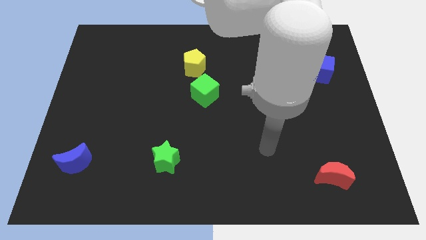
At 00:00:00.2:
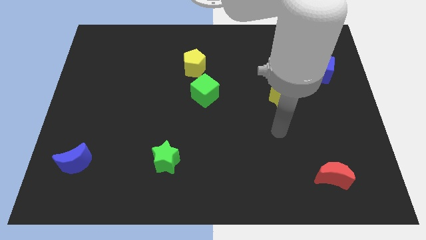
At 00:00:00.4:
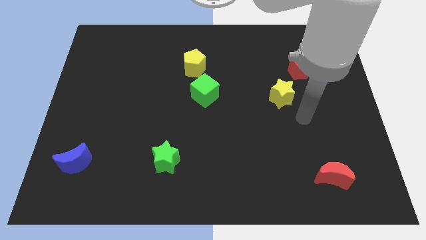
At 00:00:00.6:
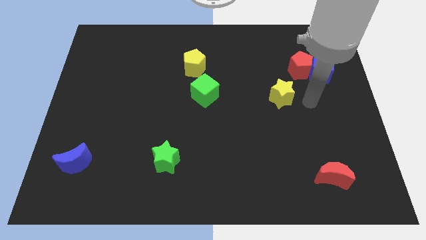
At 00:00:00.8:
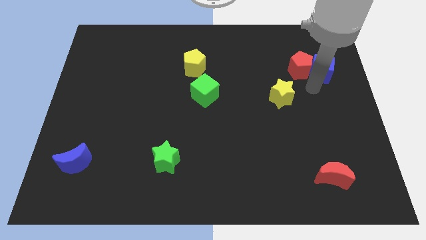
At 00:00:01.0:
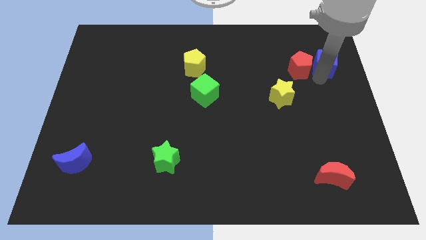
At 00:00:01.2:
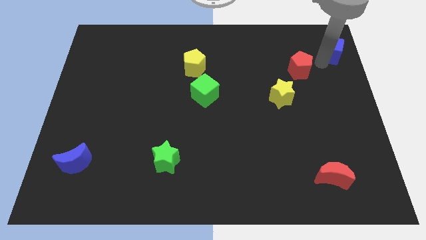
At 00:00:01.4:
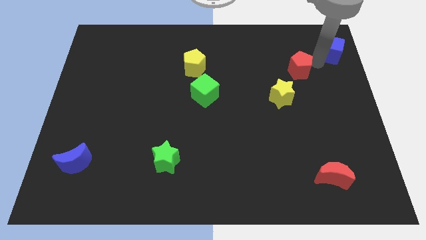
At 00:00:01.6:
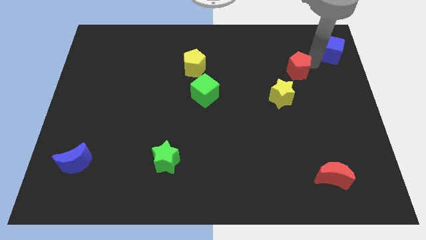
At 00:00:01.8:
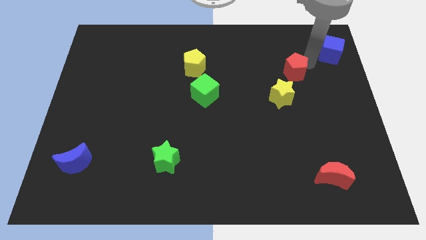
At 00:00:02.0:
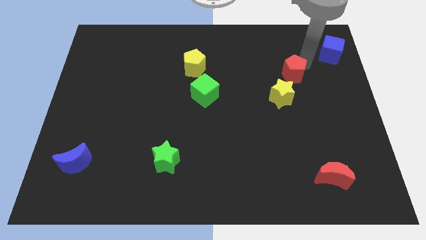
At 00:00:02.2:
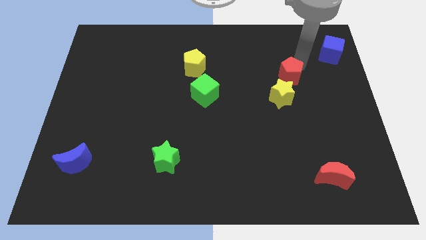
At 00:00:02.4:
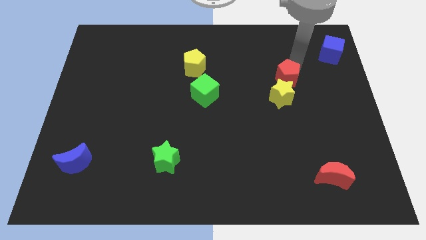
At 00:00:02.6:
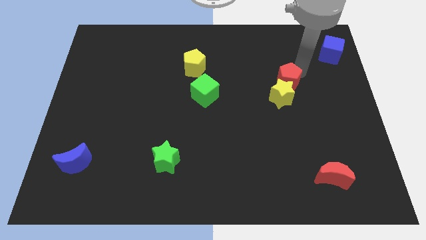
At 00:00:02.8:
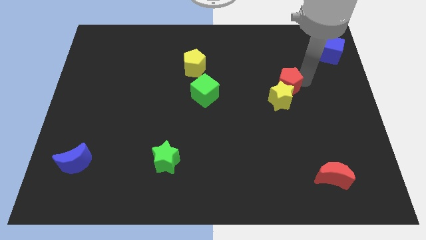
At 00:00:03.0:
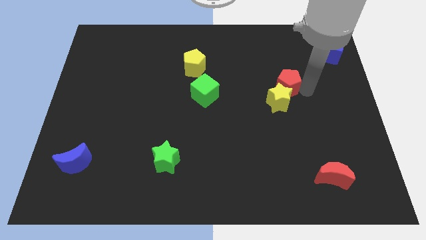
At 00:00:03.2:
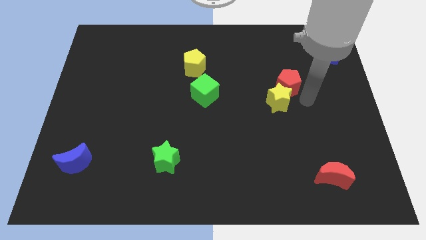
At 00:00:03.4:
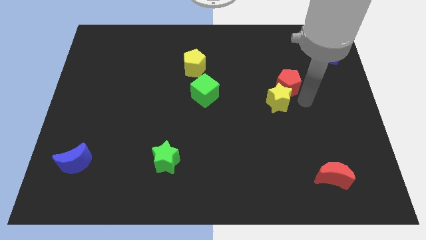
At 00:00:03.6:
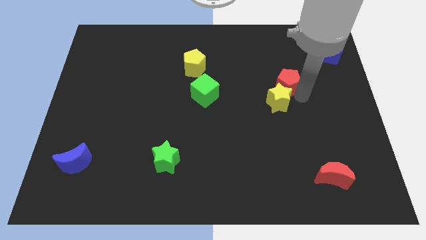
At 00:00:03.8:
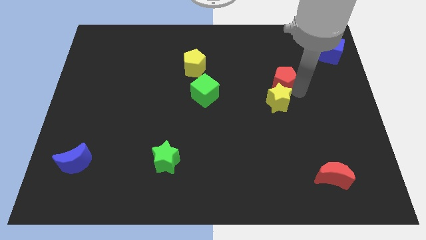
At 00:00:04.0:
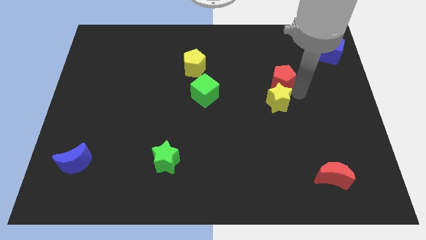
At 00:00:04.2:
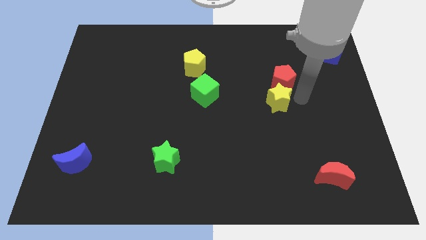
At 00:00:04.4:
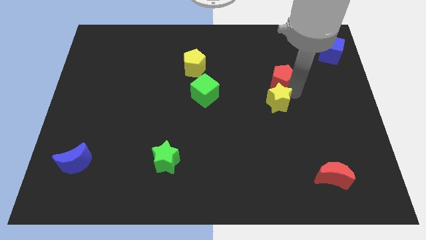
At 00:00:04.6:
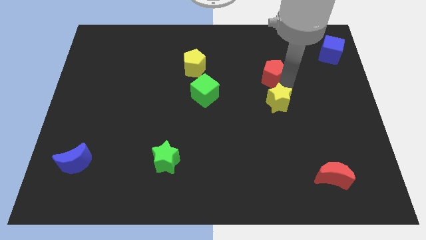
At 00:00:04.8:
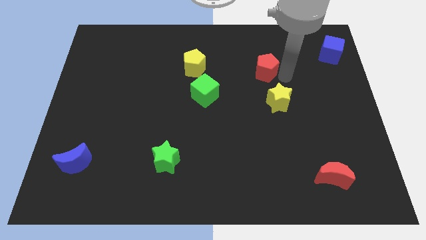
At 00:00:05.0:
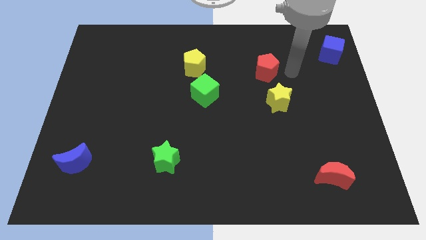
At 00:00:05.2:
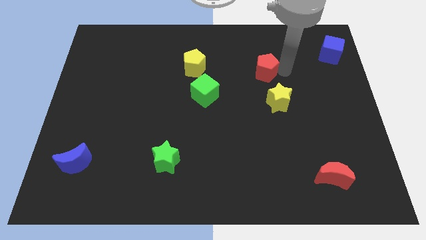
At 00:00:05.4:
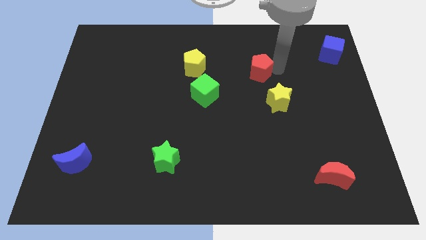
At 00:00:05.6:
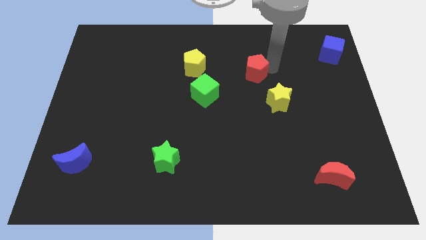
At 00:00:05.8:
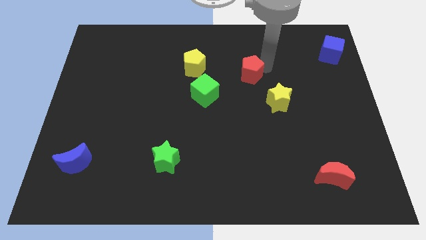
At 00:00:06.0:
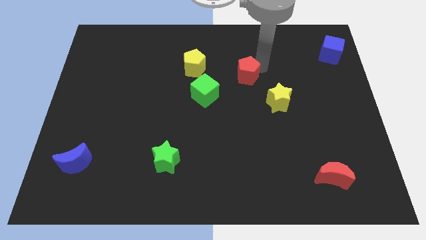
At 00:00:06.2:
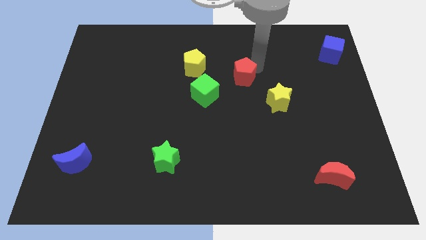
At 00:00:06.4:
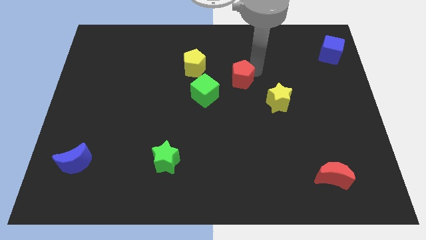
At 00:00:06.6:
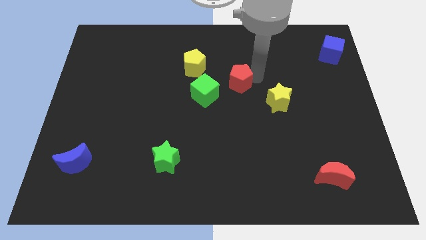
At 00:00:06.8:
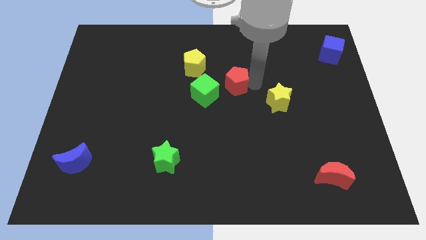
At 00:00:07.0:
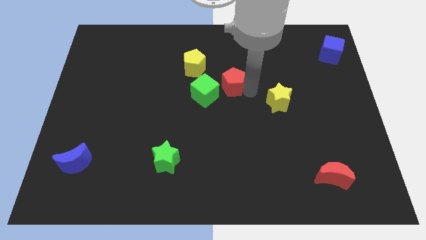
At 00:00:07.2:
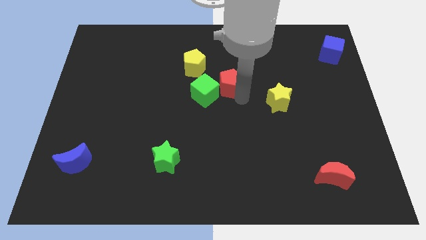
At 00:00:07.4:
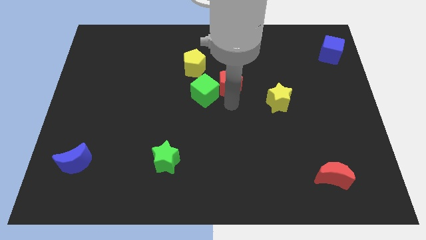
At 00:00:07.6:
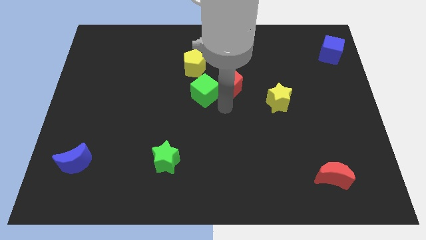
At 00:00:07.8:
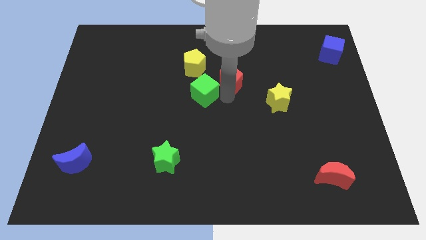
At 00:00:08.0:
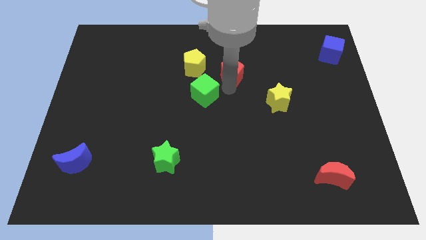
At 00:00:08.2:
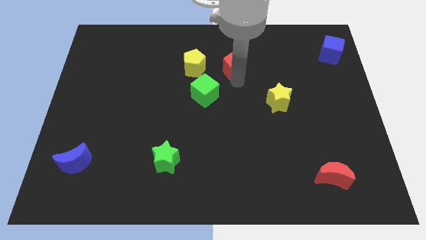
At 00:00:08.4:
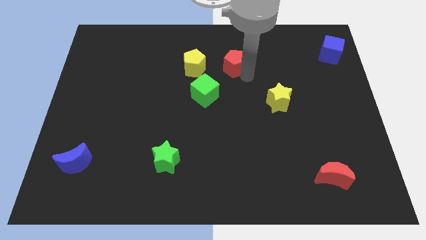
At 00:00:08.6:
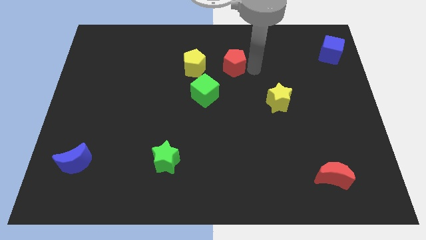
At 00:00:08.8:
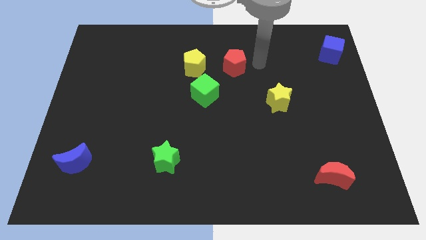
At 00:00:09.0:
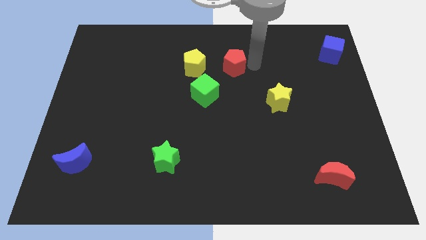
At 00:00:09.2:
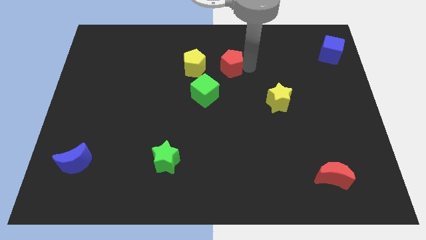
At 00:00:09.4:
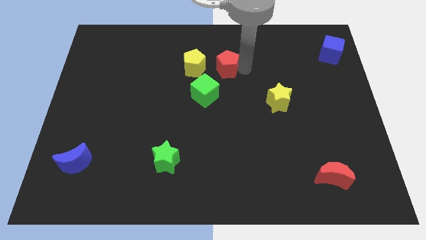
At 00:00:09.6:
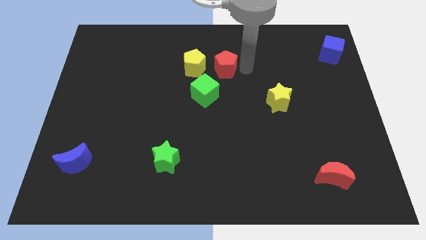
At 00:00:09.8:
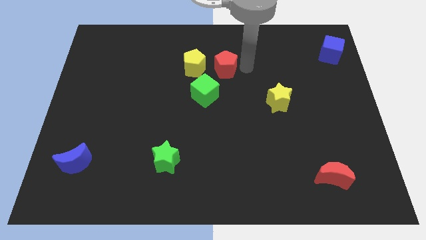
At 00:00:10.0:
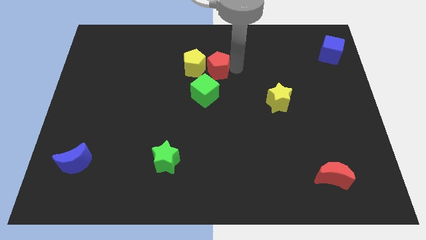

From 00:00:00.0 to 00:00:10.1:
push the red pentagon towards the yellow pentagon

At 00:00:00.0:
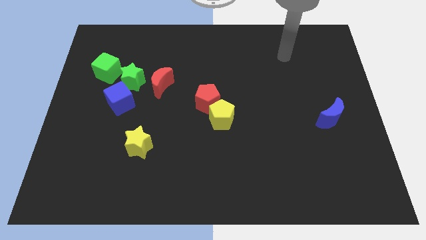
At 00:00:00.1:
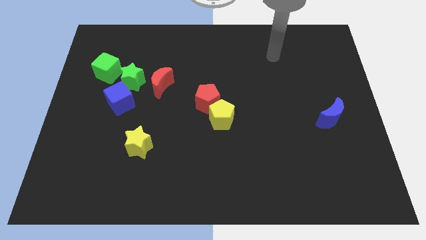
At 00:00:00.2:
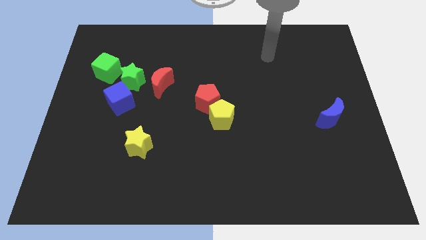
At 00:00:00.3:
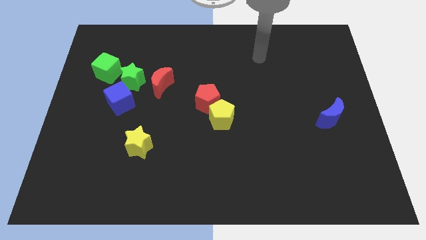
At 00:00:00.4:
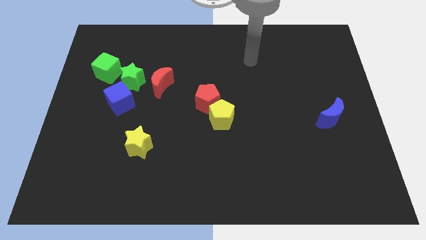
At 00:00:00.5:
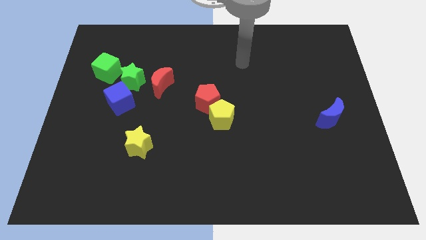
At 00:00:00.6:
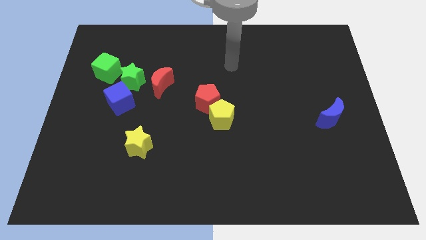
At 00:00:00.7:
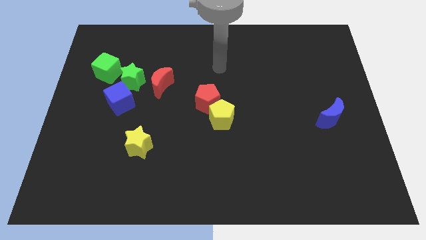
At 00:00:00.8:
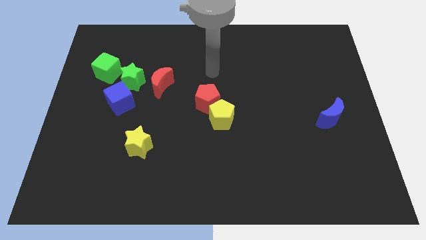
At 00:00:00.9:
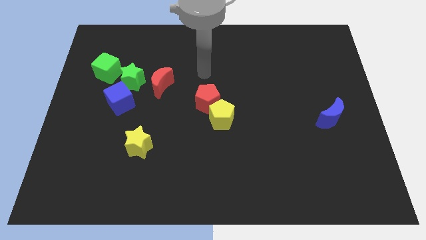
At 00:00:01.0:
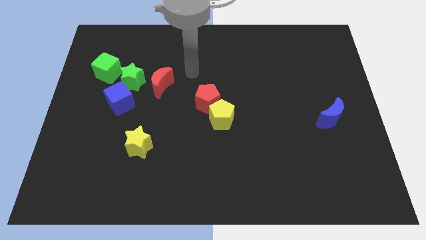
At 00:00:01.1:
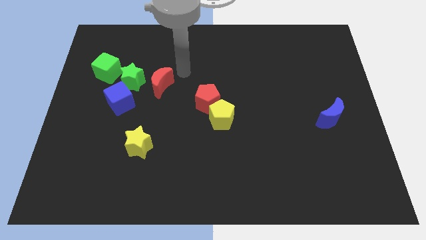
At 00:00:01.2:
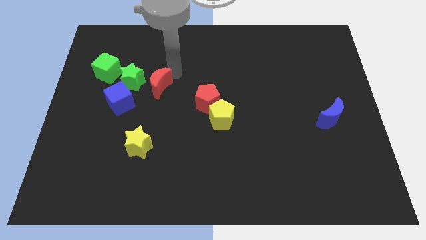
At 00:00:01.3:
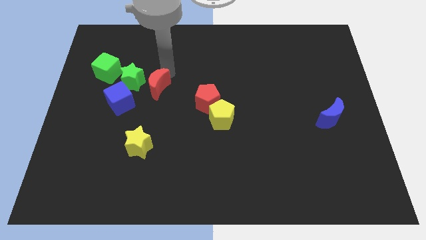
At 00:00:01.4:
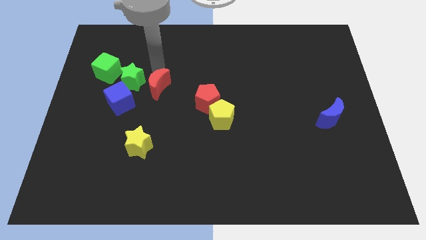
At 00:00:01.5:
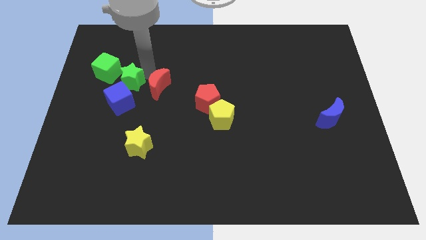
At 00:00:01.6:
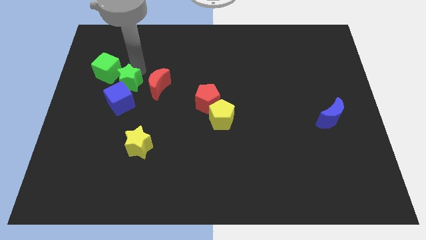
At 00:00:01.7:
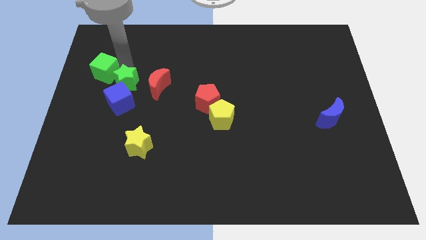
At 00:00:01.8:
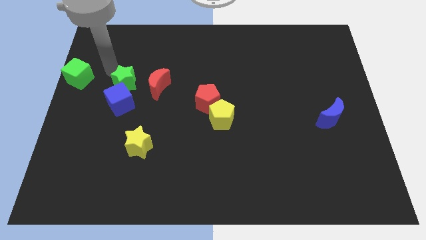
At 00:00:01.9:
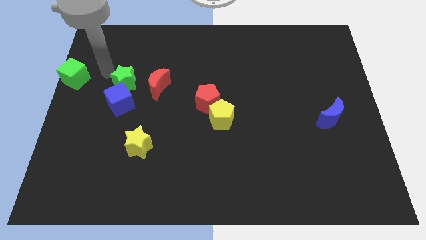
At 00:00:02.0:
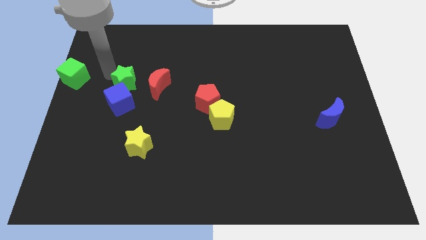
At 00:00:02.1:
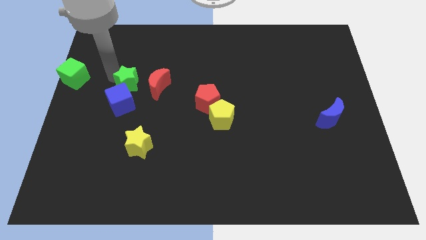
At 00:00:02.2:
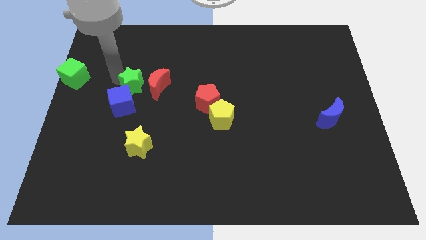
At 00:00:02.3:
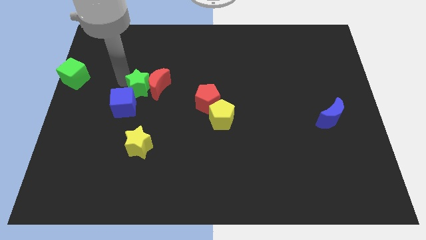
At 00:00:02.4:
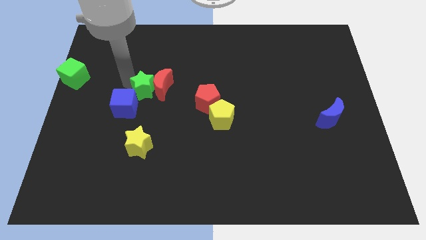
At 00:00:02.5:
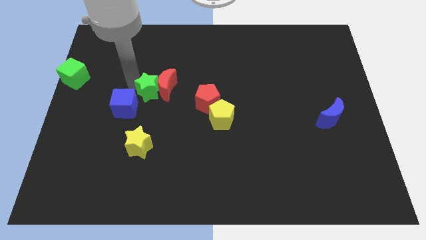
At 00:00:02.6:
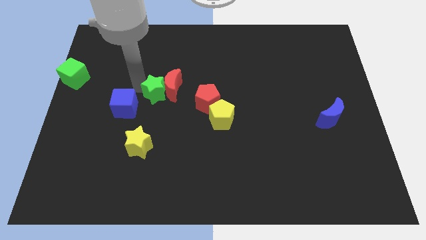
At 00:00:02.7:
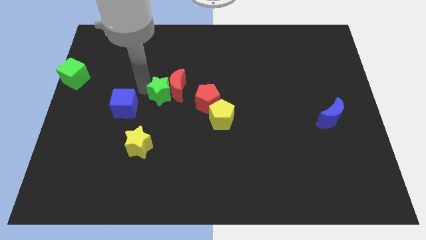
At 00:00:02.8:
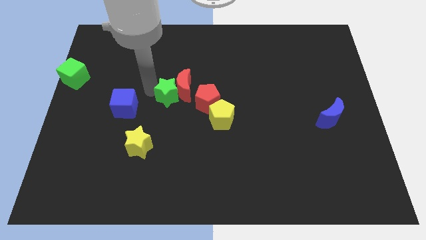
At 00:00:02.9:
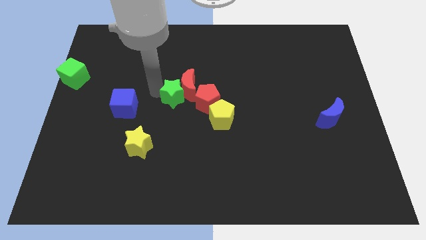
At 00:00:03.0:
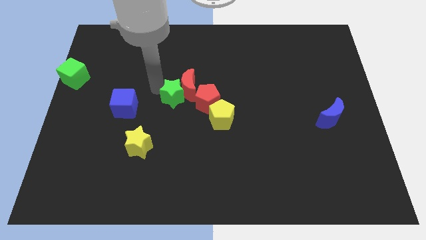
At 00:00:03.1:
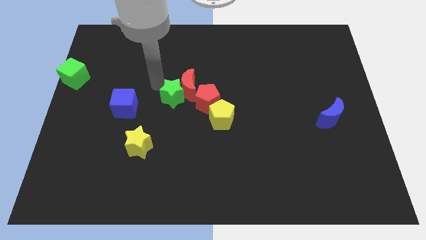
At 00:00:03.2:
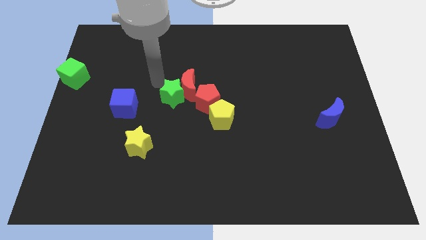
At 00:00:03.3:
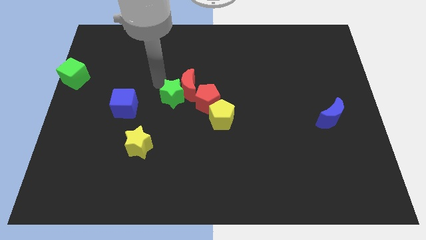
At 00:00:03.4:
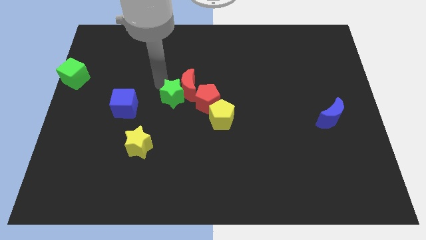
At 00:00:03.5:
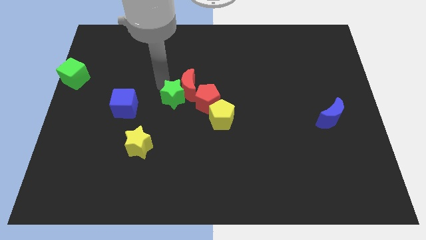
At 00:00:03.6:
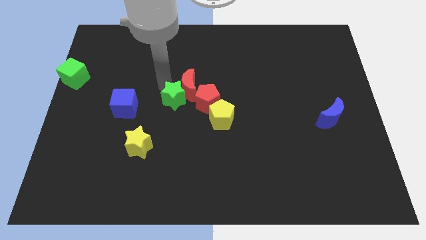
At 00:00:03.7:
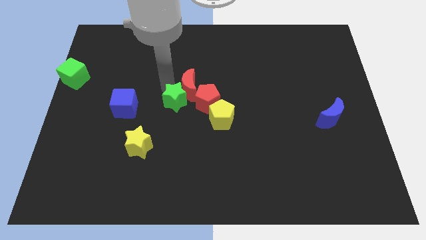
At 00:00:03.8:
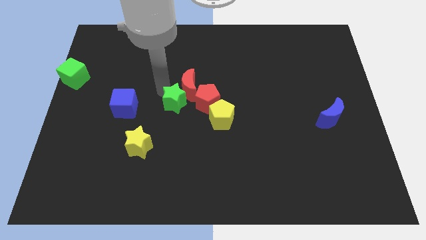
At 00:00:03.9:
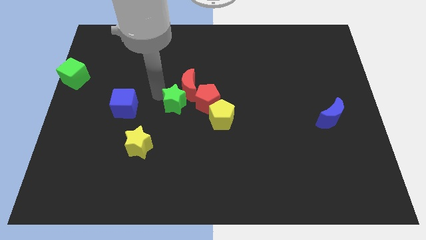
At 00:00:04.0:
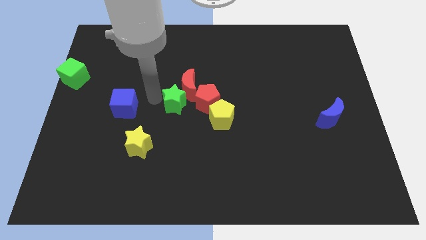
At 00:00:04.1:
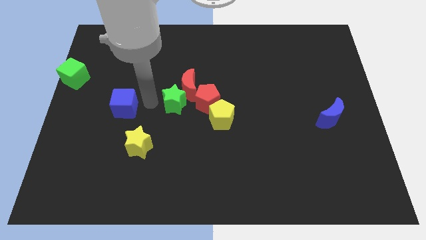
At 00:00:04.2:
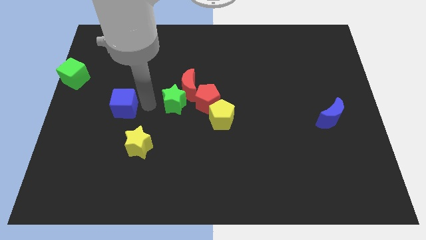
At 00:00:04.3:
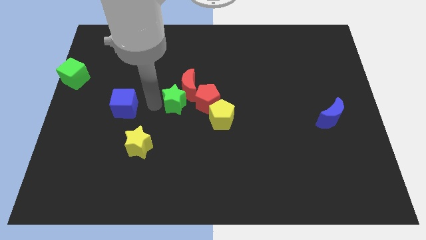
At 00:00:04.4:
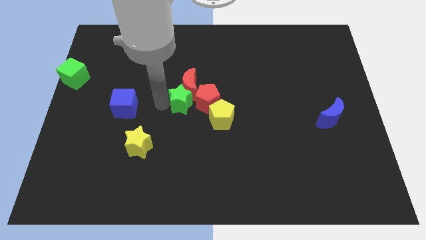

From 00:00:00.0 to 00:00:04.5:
slide the green star to the red pentagon
